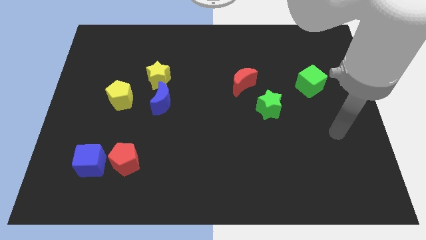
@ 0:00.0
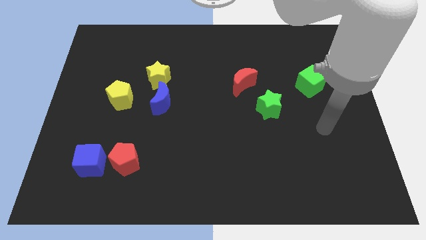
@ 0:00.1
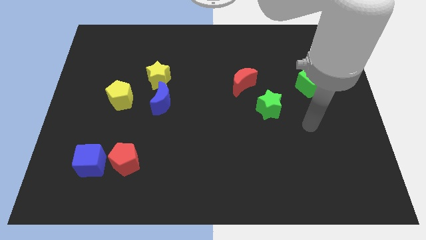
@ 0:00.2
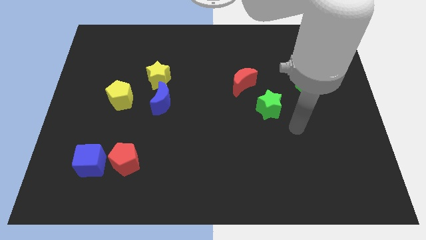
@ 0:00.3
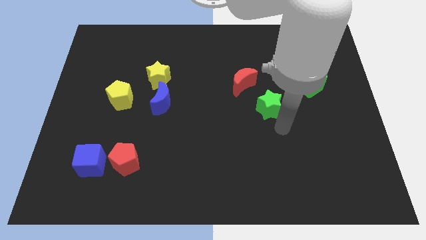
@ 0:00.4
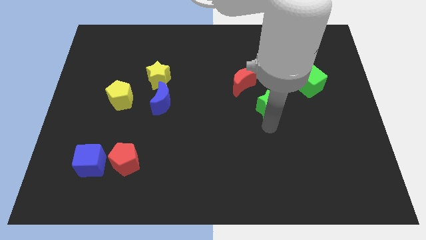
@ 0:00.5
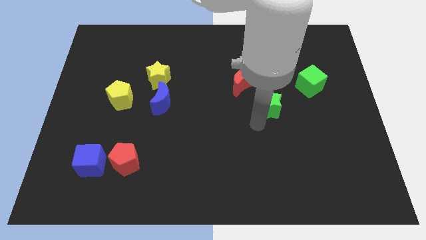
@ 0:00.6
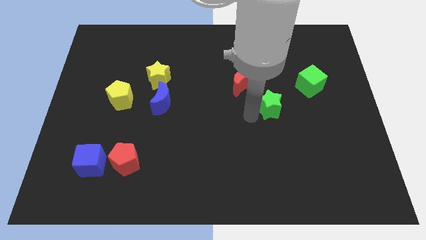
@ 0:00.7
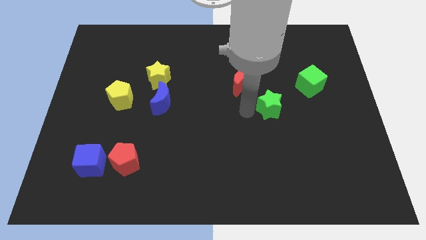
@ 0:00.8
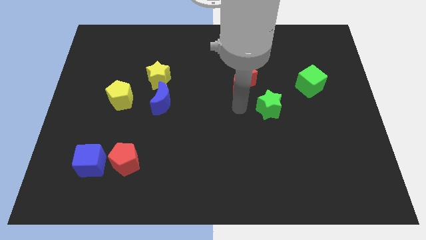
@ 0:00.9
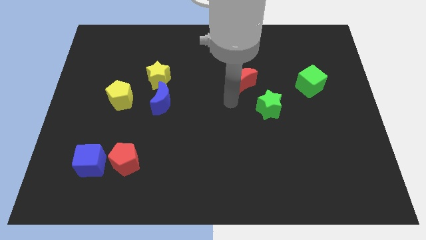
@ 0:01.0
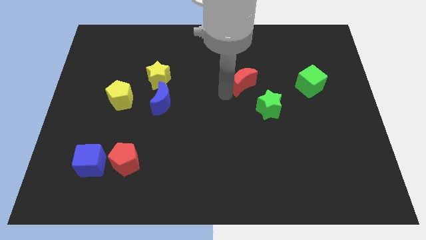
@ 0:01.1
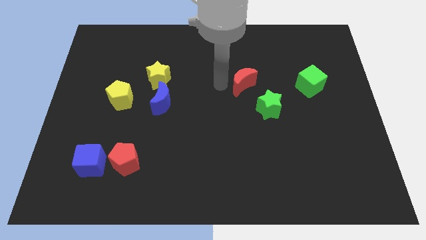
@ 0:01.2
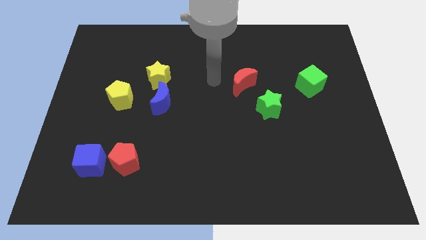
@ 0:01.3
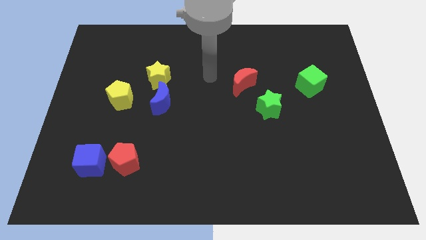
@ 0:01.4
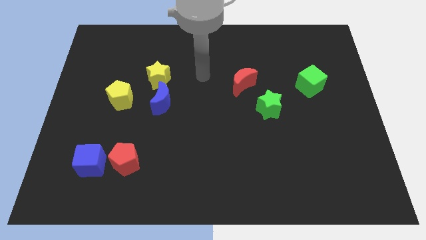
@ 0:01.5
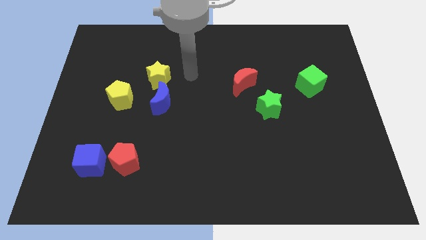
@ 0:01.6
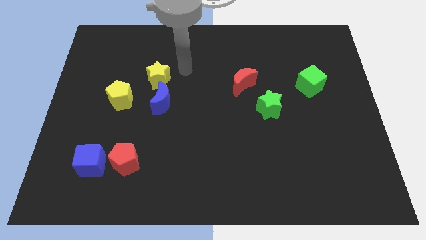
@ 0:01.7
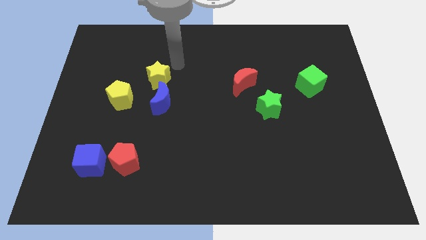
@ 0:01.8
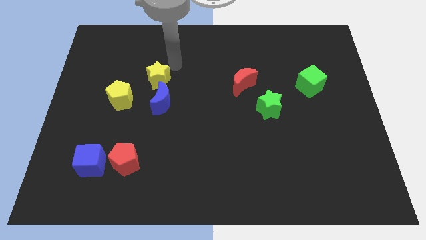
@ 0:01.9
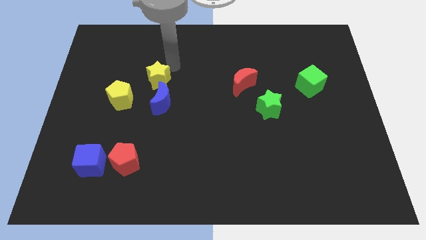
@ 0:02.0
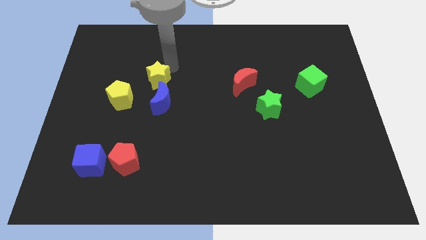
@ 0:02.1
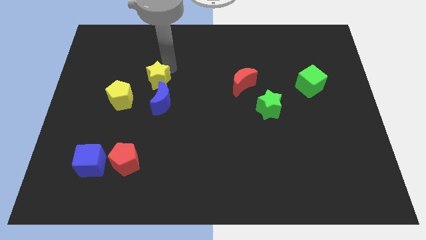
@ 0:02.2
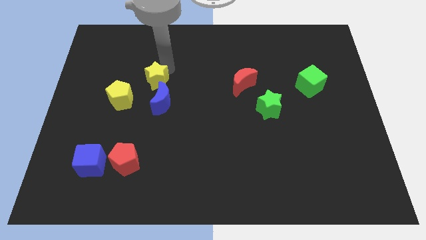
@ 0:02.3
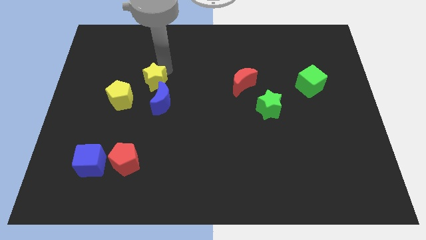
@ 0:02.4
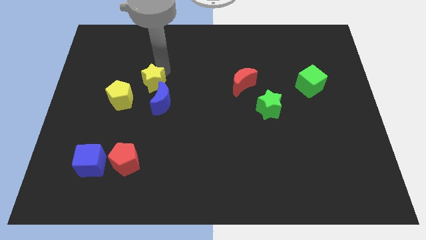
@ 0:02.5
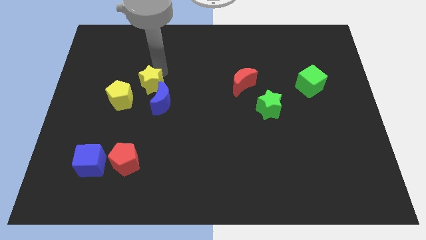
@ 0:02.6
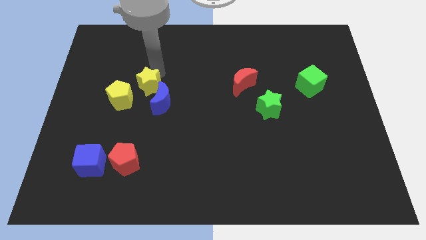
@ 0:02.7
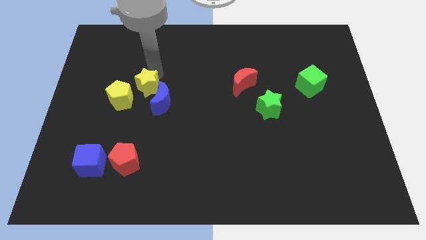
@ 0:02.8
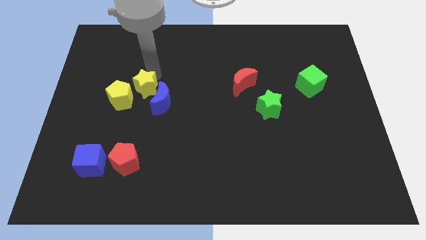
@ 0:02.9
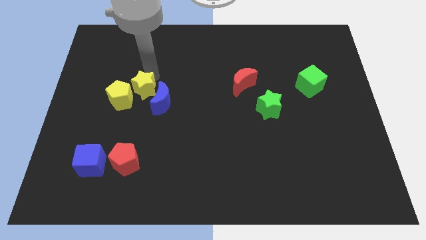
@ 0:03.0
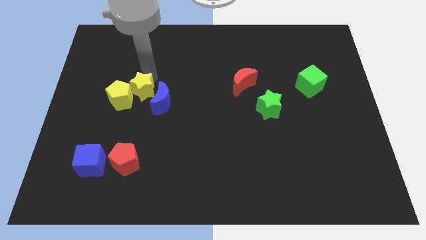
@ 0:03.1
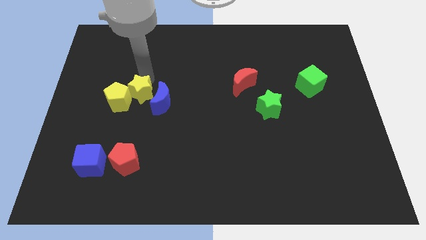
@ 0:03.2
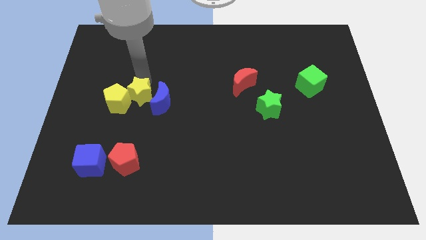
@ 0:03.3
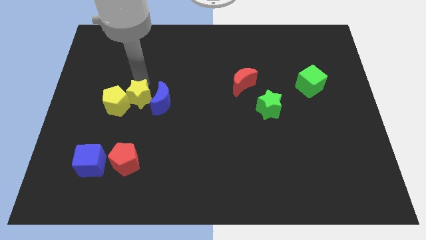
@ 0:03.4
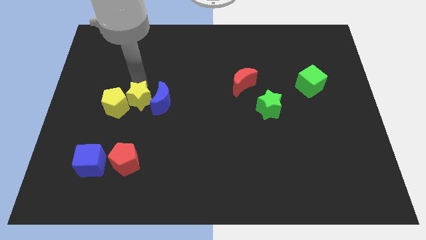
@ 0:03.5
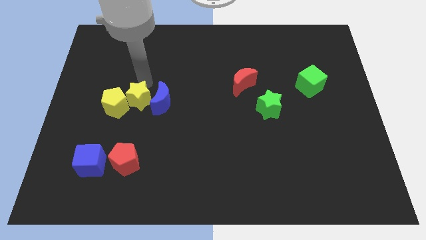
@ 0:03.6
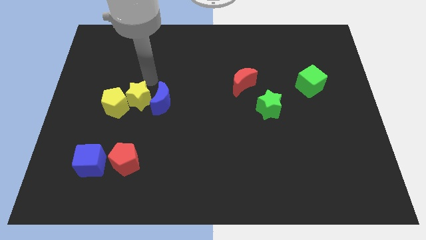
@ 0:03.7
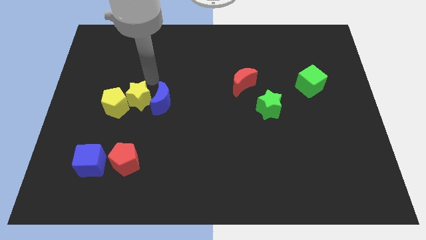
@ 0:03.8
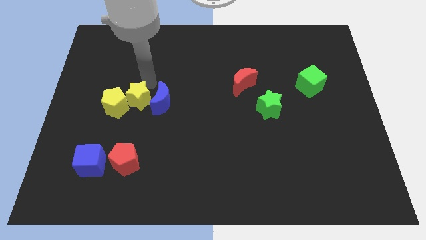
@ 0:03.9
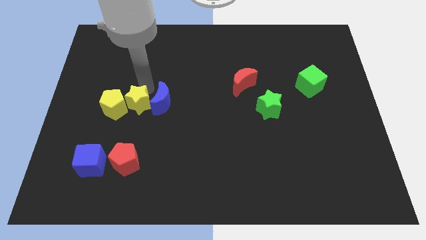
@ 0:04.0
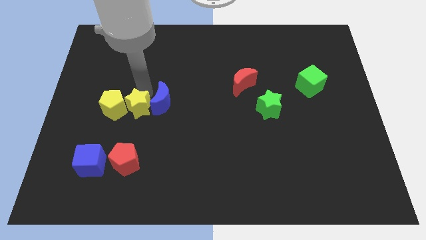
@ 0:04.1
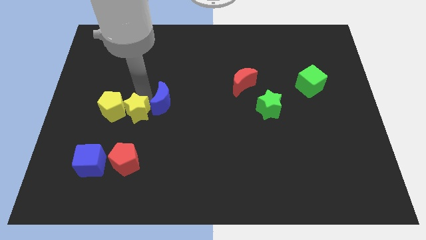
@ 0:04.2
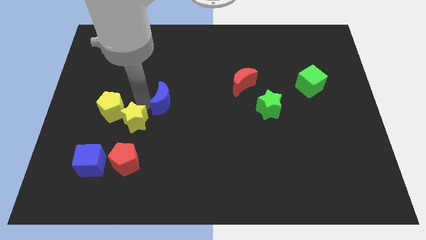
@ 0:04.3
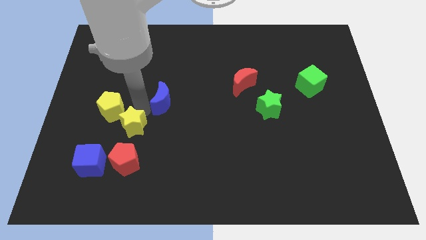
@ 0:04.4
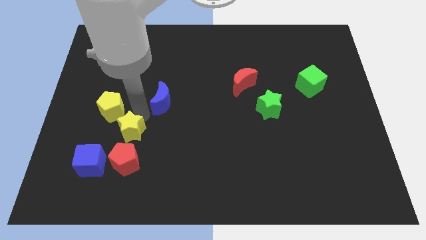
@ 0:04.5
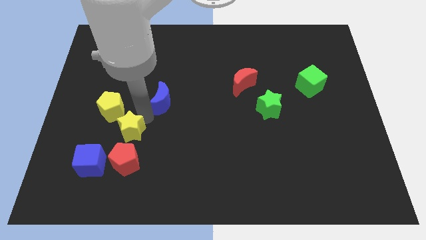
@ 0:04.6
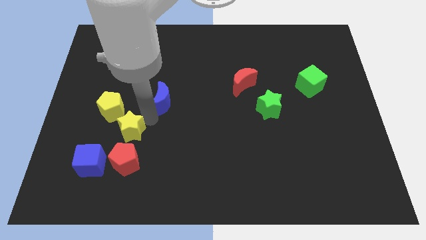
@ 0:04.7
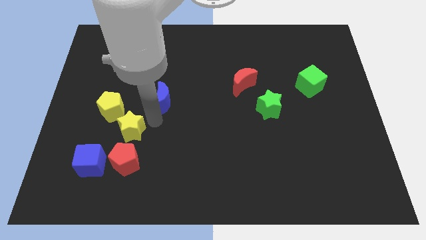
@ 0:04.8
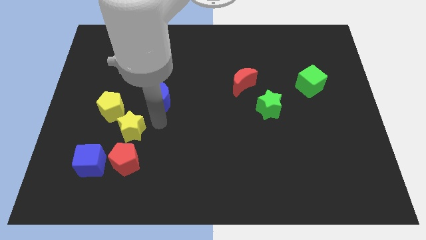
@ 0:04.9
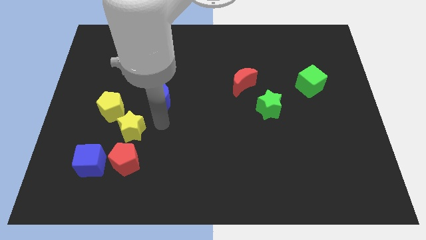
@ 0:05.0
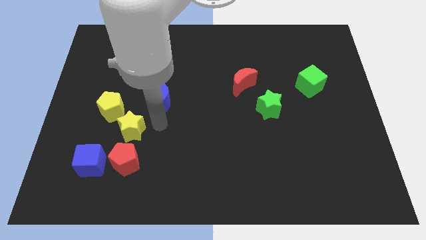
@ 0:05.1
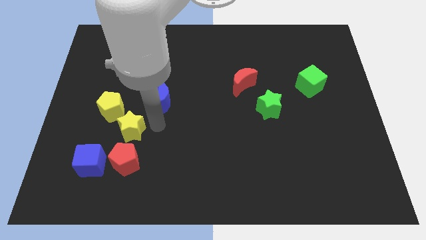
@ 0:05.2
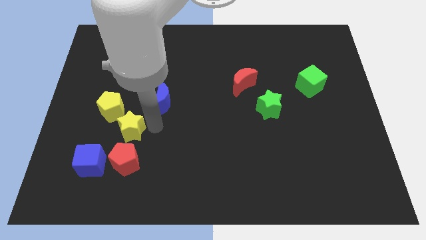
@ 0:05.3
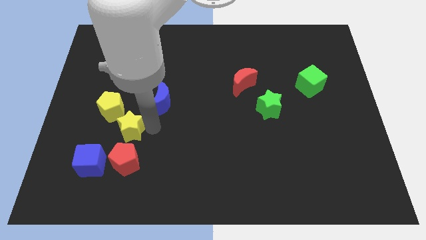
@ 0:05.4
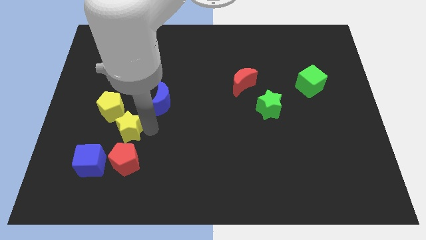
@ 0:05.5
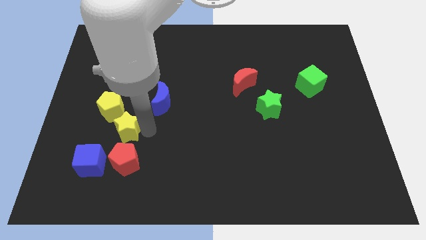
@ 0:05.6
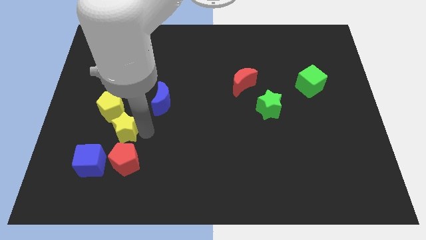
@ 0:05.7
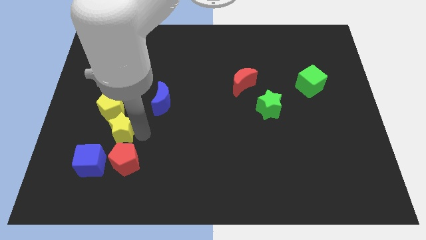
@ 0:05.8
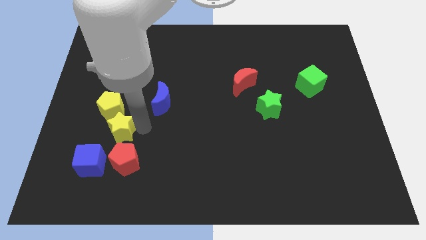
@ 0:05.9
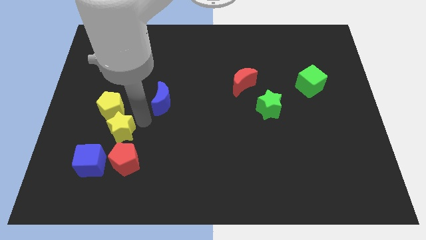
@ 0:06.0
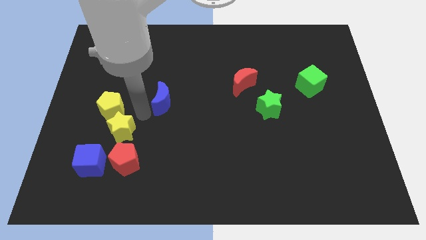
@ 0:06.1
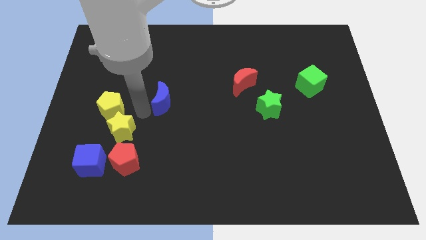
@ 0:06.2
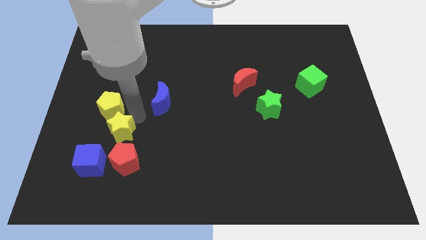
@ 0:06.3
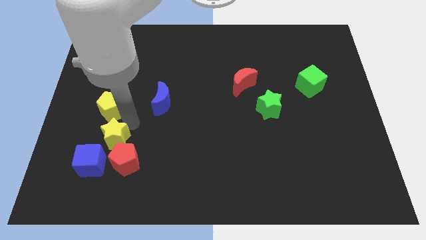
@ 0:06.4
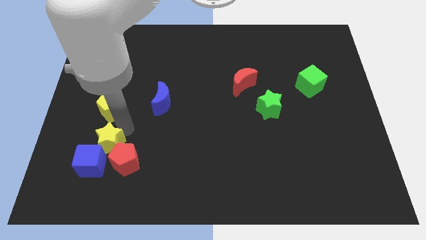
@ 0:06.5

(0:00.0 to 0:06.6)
move the yellow star towards the blue cube
